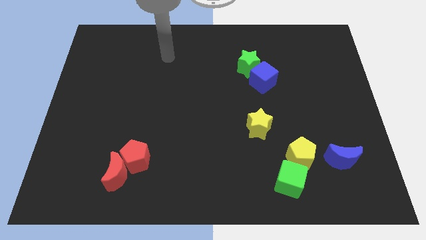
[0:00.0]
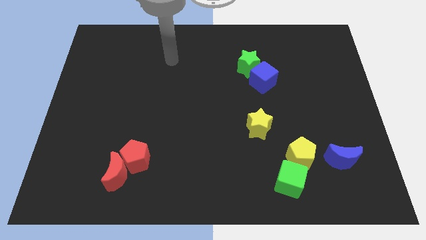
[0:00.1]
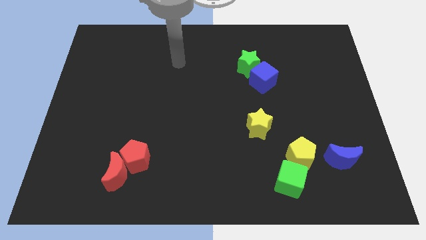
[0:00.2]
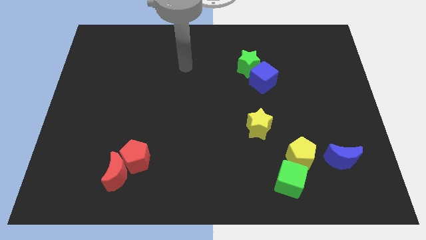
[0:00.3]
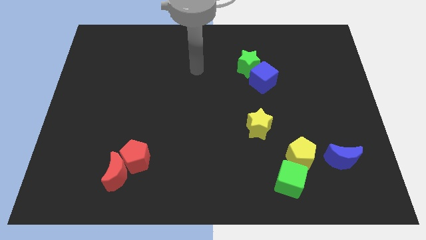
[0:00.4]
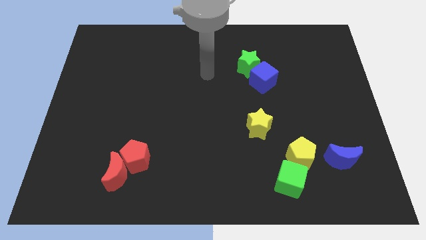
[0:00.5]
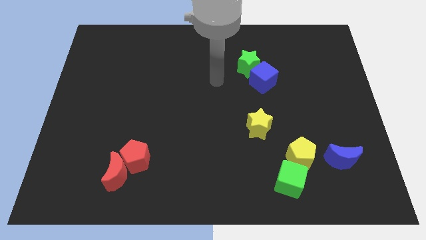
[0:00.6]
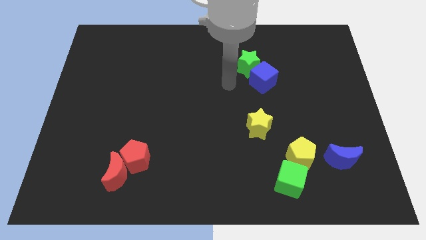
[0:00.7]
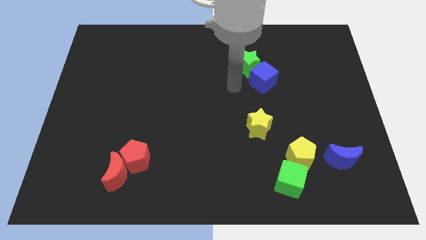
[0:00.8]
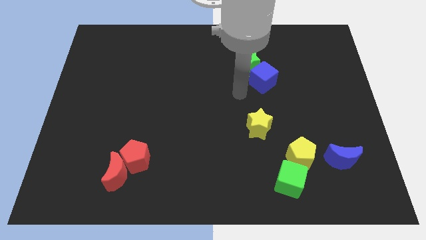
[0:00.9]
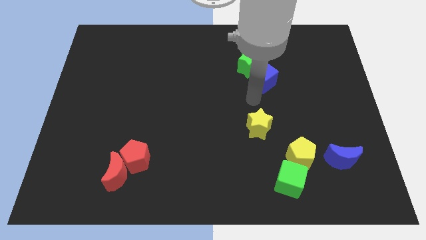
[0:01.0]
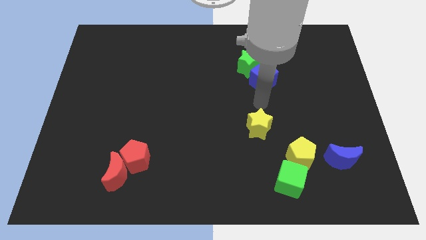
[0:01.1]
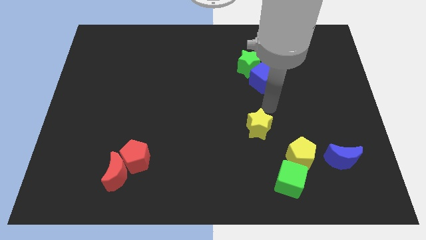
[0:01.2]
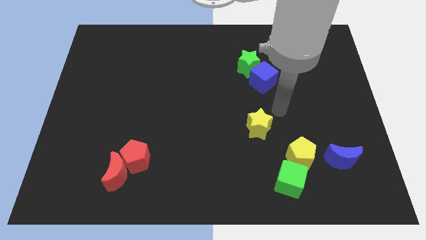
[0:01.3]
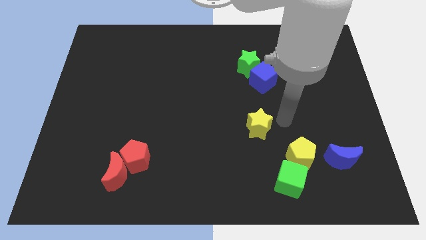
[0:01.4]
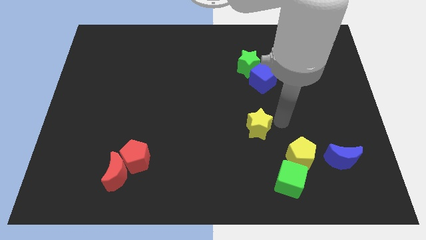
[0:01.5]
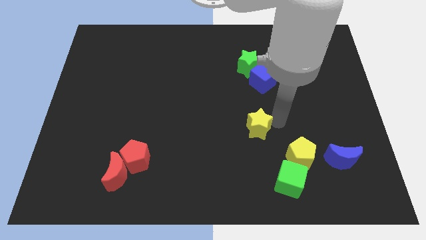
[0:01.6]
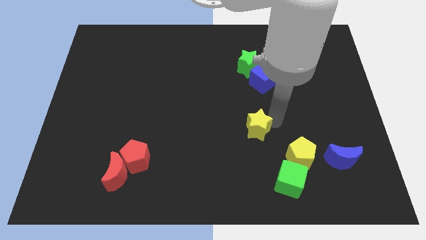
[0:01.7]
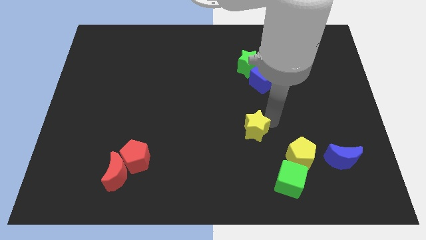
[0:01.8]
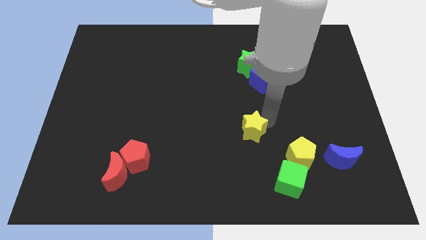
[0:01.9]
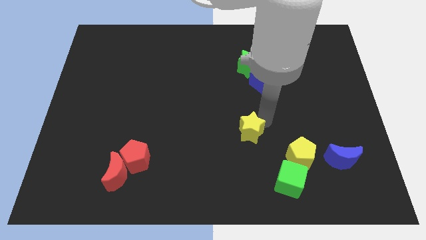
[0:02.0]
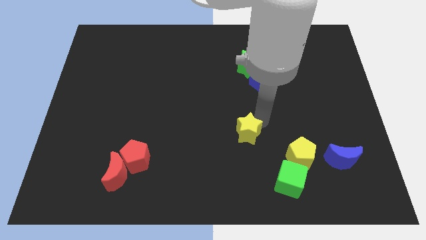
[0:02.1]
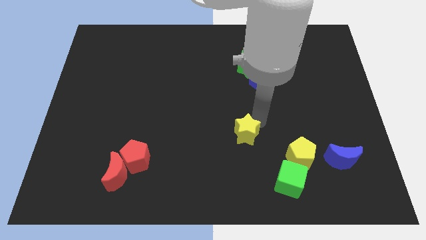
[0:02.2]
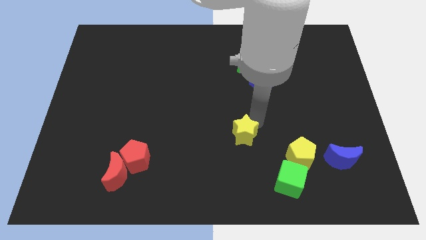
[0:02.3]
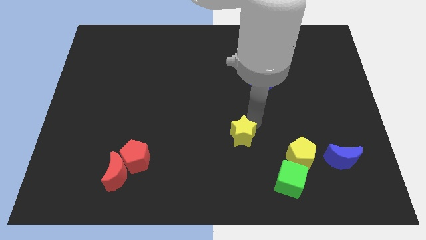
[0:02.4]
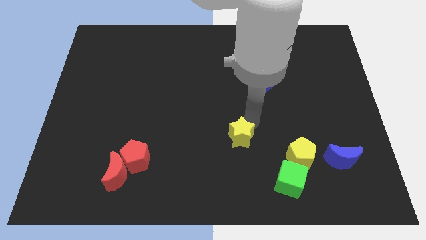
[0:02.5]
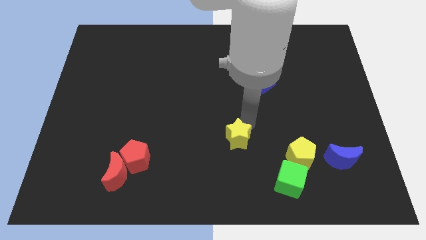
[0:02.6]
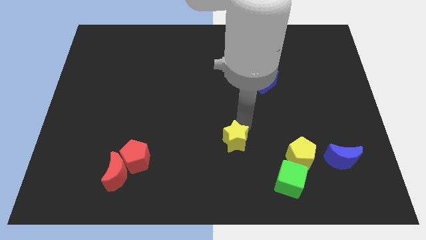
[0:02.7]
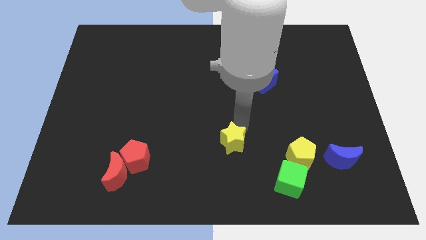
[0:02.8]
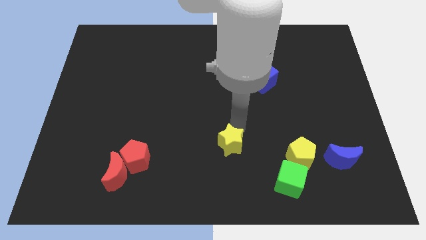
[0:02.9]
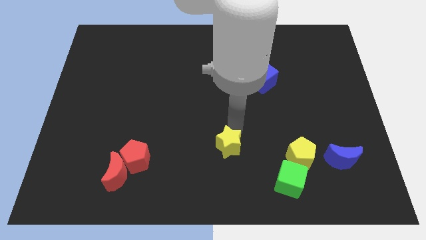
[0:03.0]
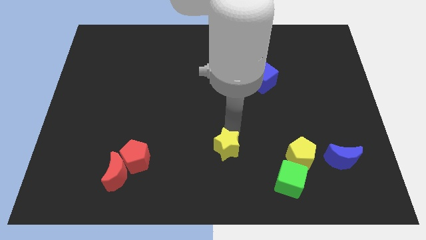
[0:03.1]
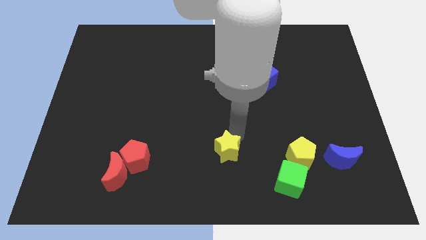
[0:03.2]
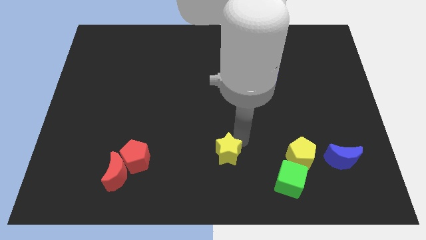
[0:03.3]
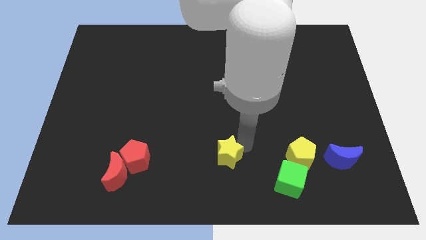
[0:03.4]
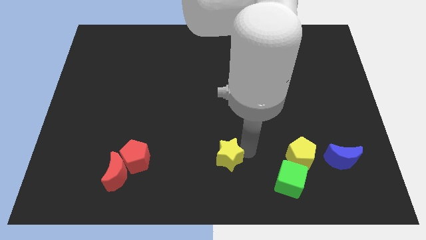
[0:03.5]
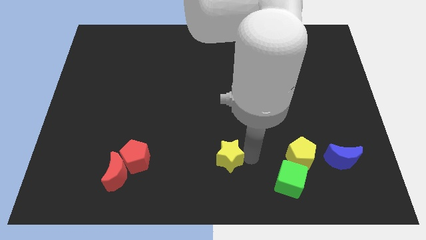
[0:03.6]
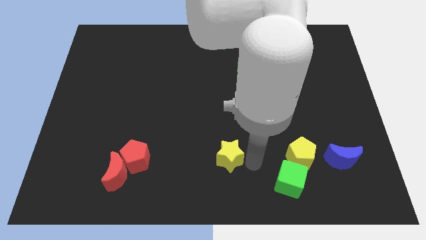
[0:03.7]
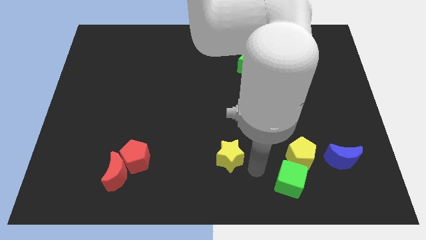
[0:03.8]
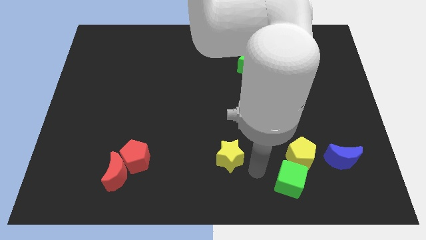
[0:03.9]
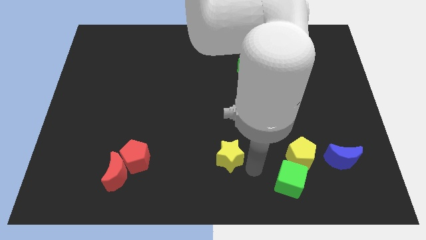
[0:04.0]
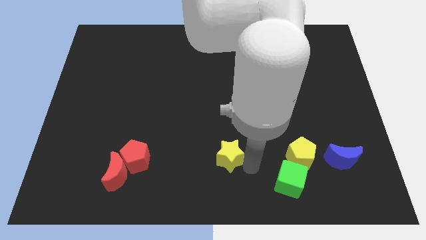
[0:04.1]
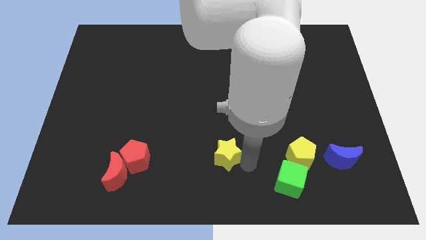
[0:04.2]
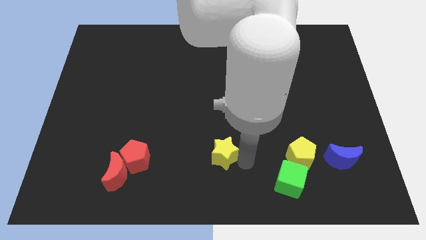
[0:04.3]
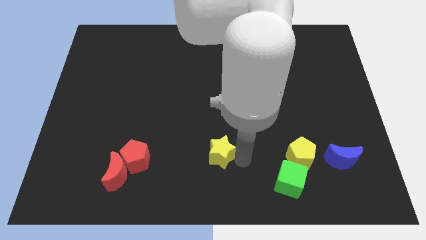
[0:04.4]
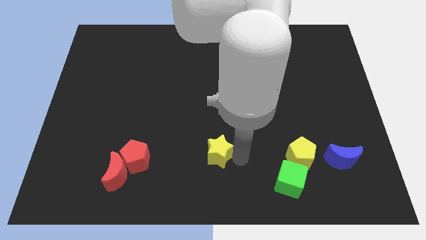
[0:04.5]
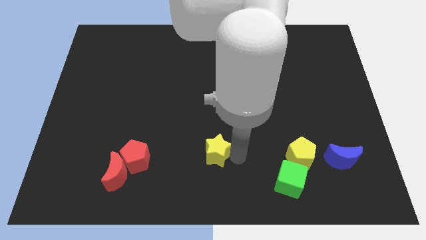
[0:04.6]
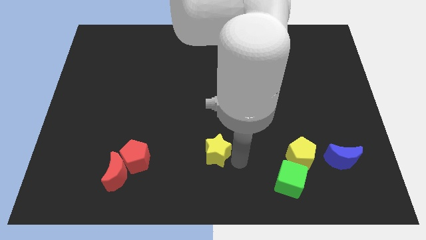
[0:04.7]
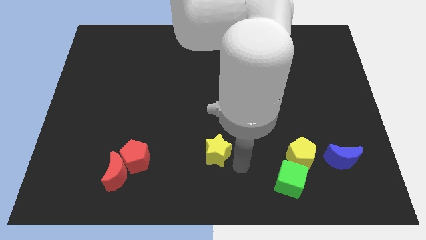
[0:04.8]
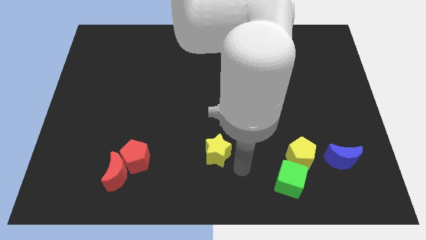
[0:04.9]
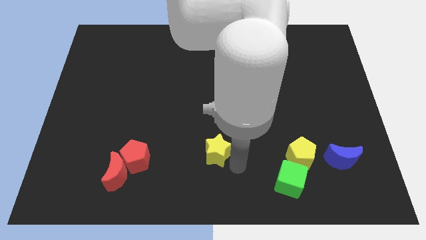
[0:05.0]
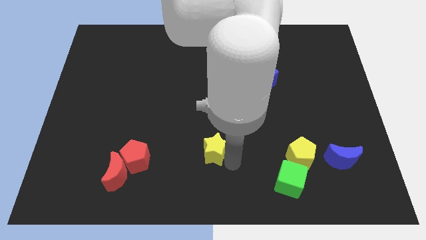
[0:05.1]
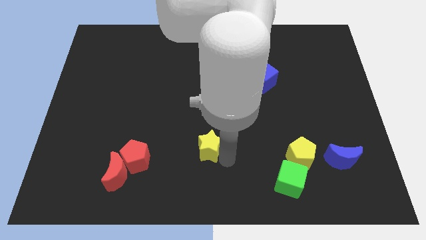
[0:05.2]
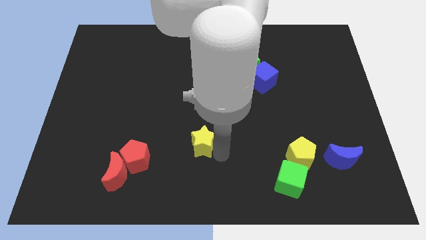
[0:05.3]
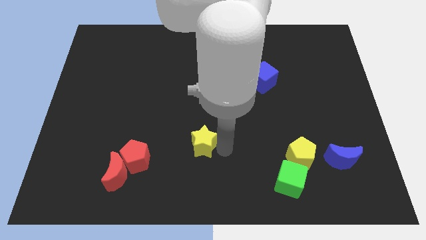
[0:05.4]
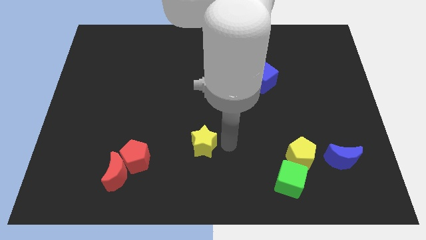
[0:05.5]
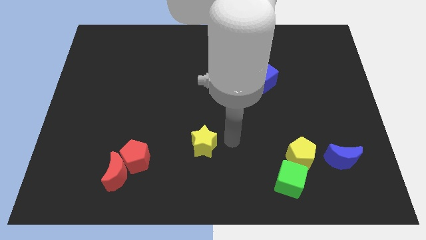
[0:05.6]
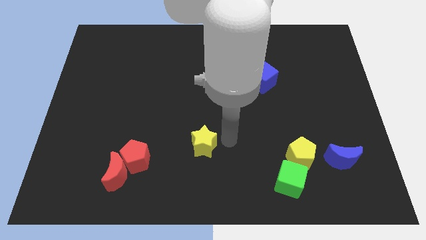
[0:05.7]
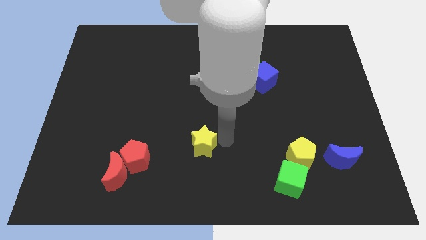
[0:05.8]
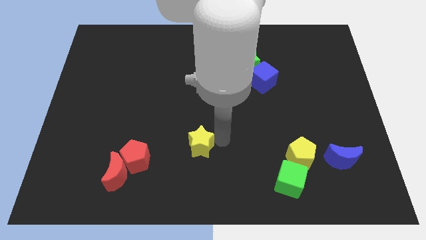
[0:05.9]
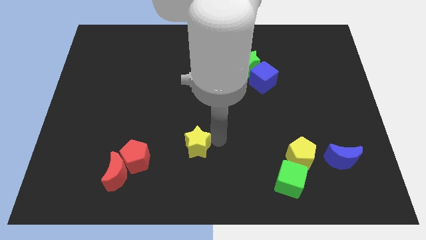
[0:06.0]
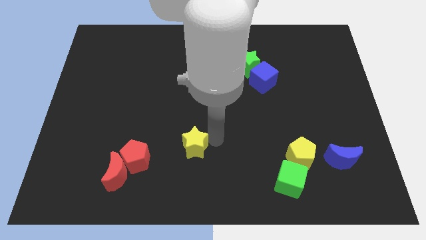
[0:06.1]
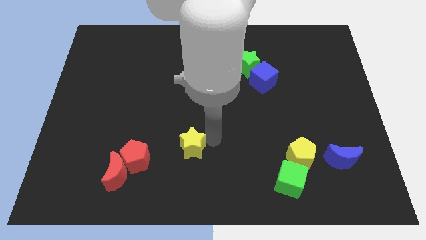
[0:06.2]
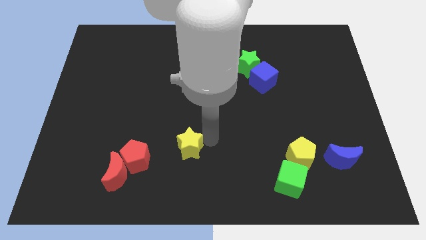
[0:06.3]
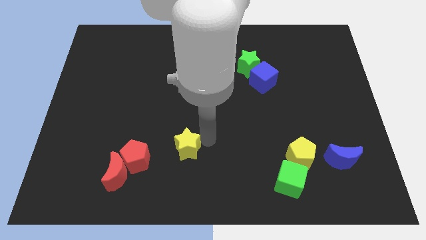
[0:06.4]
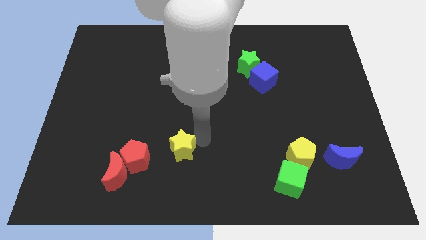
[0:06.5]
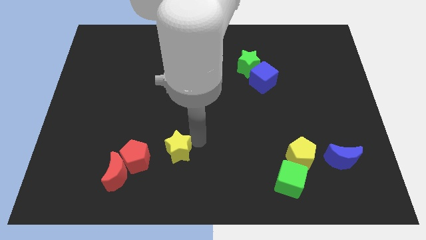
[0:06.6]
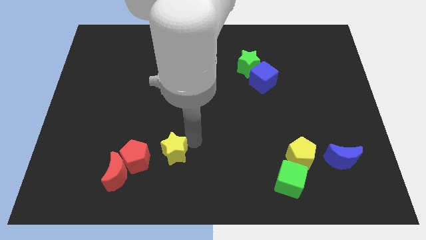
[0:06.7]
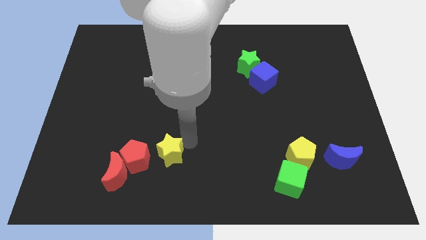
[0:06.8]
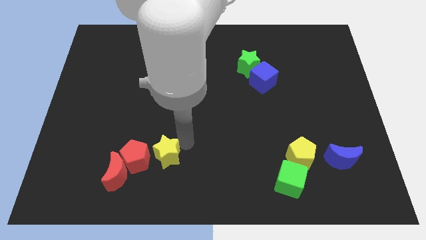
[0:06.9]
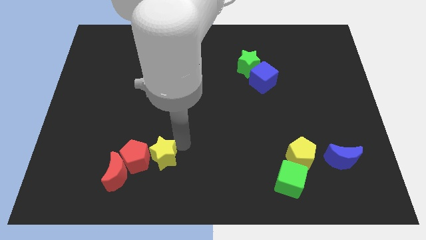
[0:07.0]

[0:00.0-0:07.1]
put the yellow star to the red pentagon
